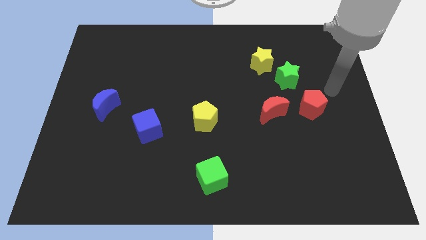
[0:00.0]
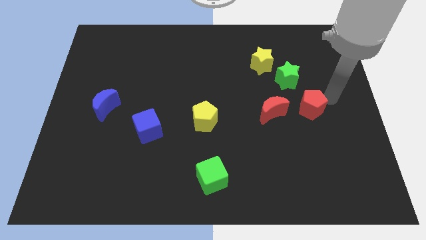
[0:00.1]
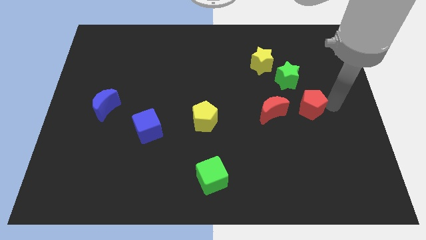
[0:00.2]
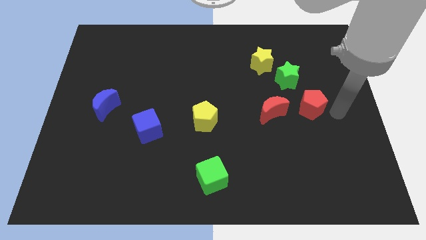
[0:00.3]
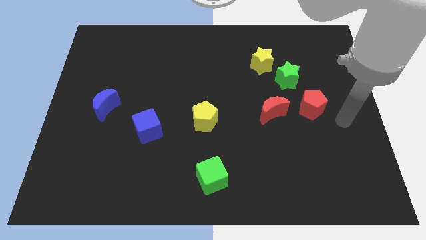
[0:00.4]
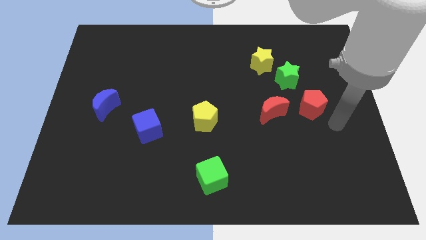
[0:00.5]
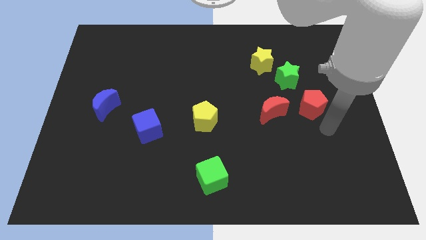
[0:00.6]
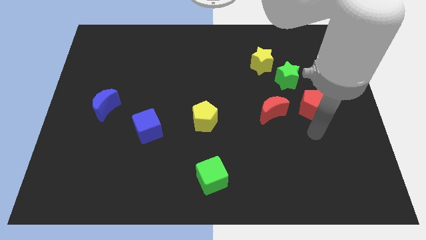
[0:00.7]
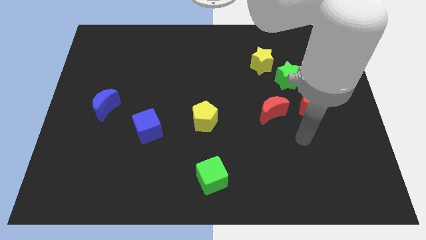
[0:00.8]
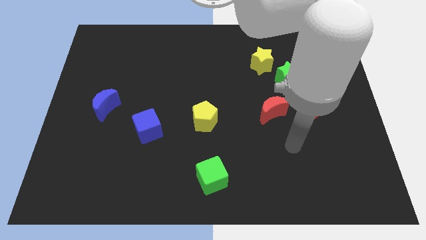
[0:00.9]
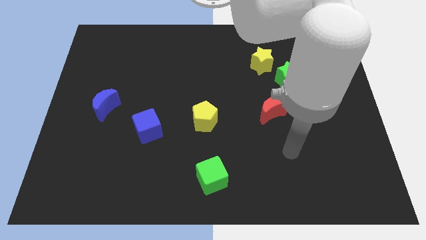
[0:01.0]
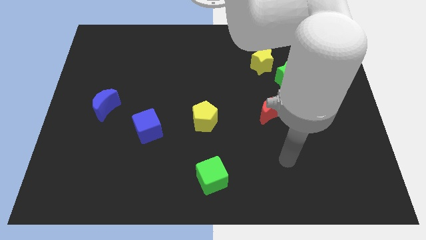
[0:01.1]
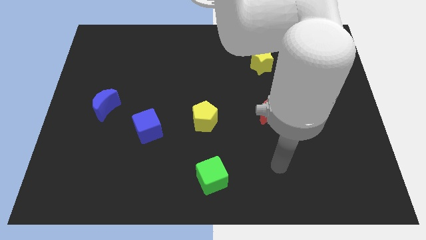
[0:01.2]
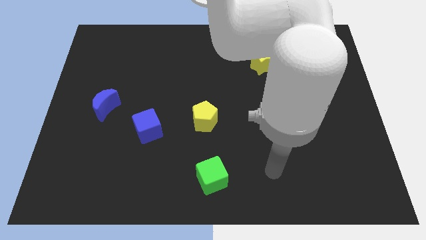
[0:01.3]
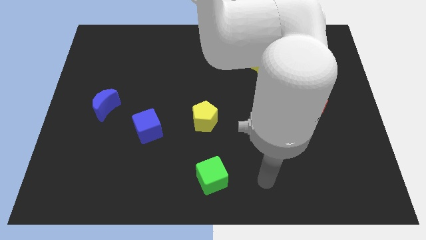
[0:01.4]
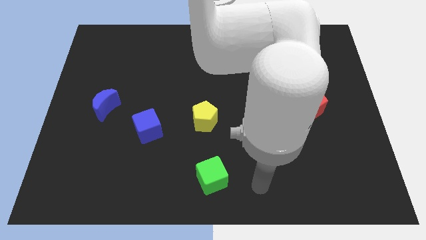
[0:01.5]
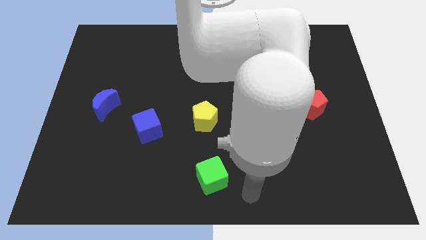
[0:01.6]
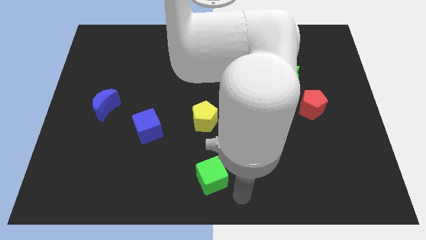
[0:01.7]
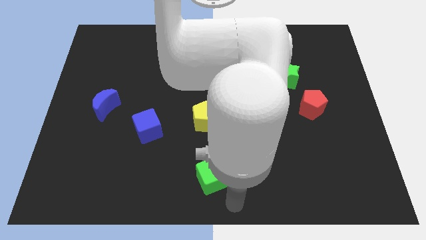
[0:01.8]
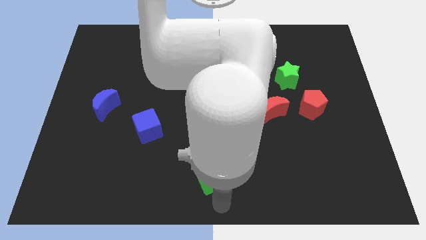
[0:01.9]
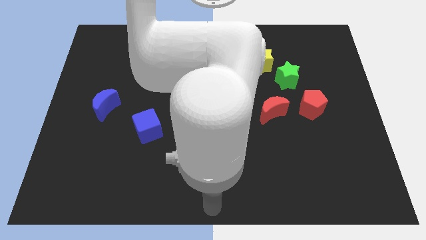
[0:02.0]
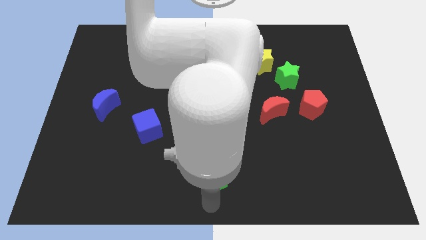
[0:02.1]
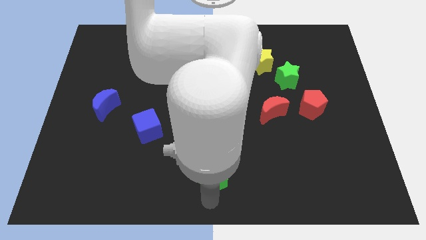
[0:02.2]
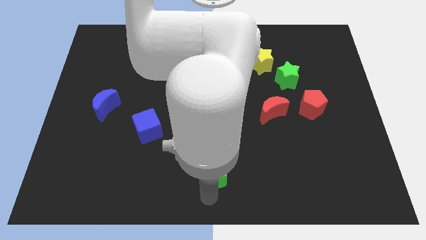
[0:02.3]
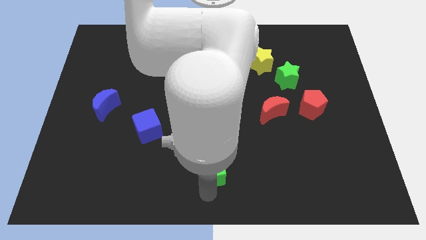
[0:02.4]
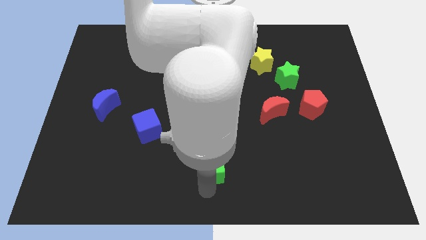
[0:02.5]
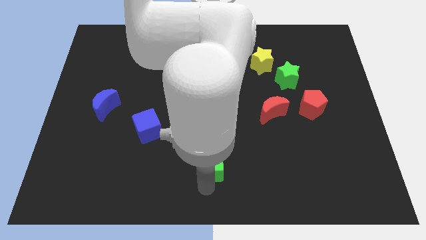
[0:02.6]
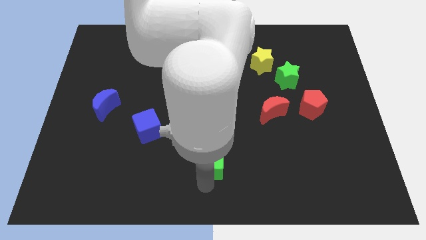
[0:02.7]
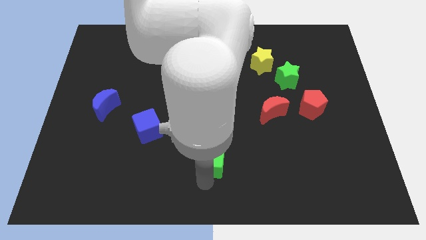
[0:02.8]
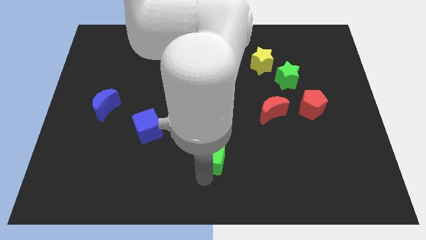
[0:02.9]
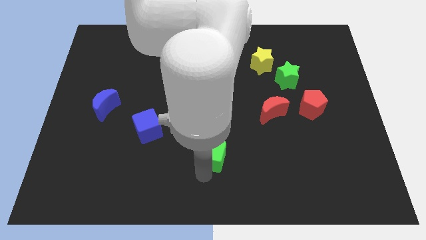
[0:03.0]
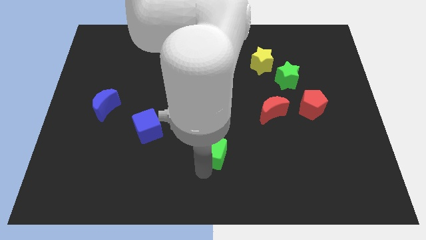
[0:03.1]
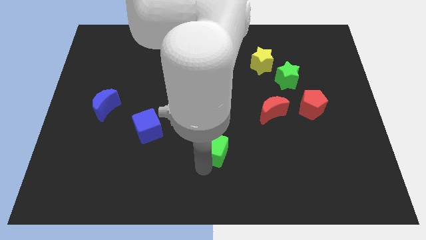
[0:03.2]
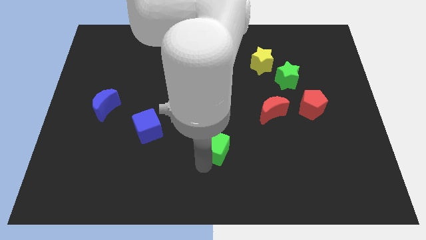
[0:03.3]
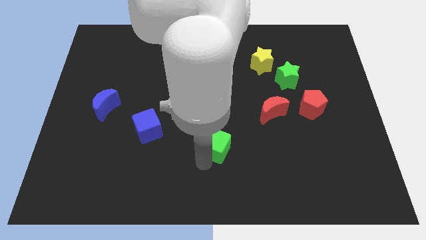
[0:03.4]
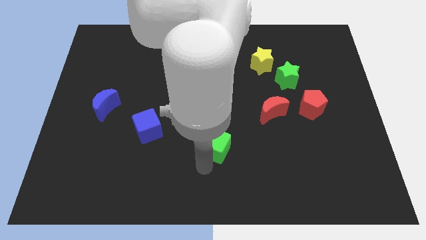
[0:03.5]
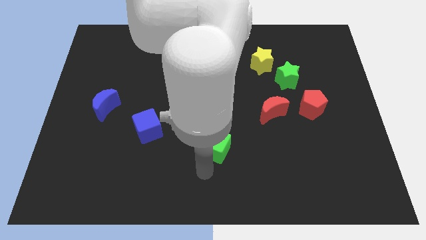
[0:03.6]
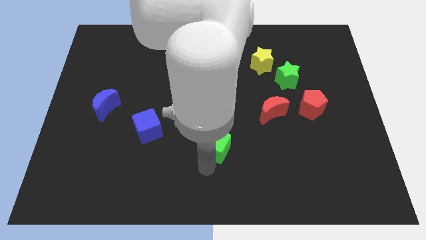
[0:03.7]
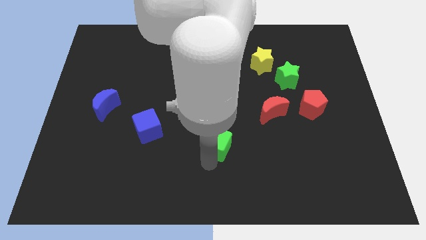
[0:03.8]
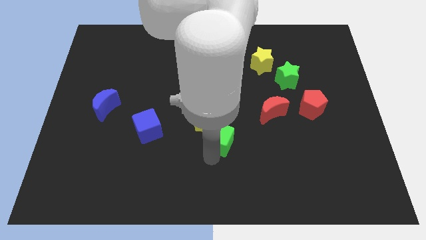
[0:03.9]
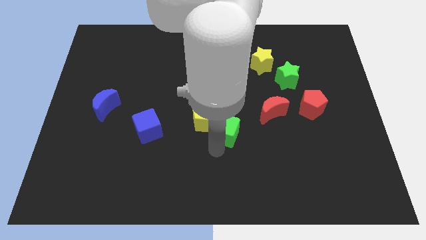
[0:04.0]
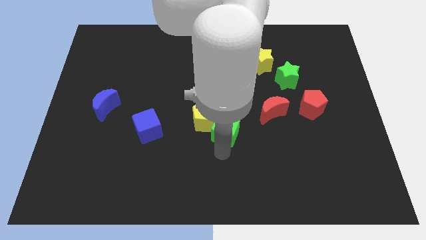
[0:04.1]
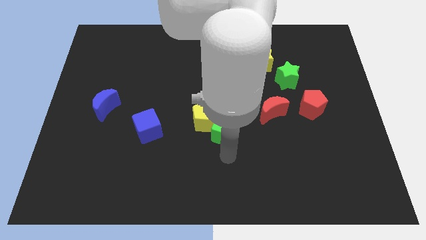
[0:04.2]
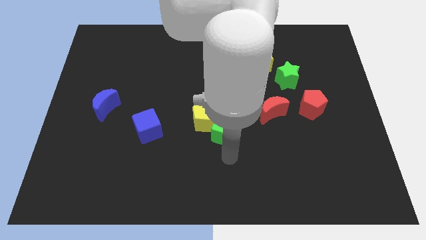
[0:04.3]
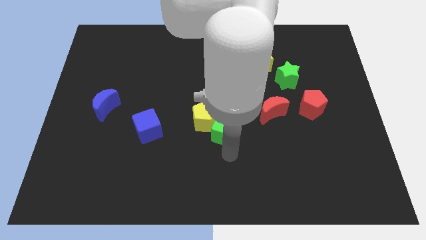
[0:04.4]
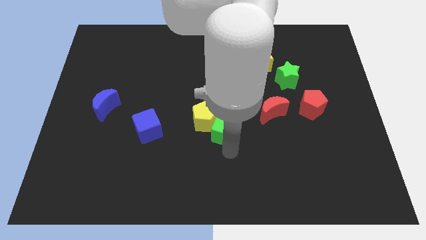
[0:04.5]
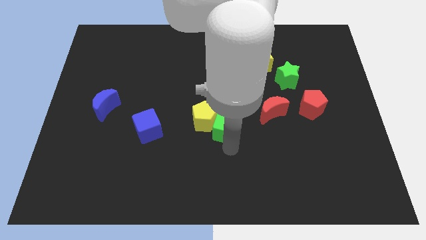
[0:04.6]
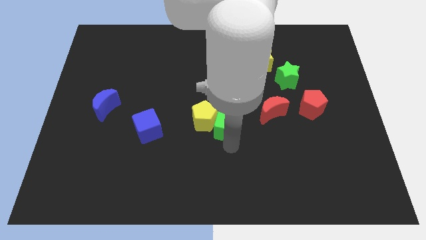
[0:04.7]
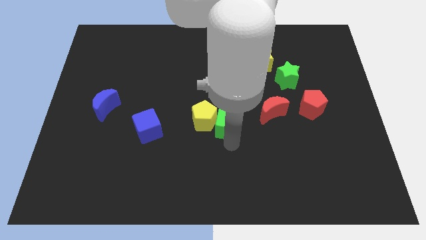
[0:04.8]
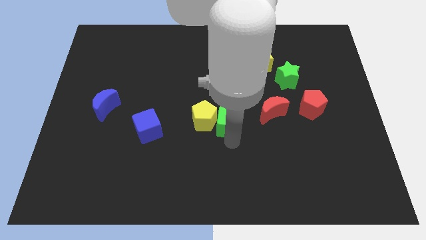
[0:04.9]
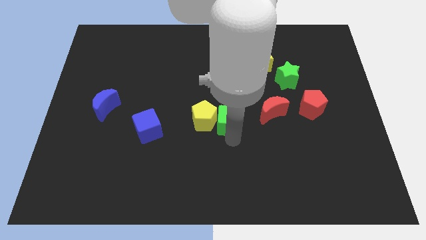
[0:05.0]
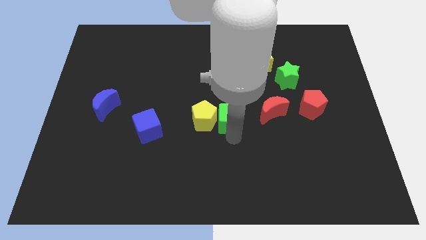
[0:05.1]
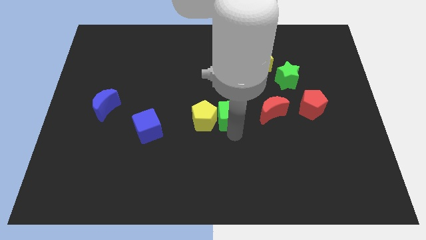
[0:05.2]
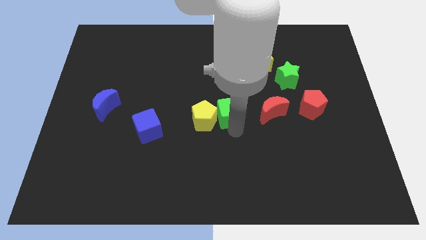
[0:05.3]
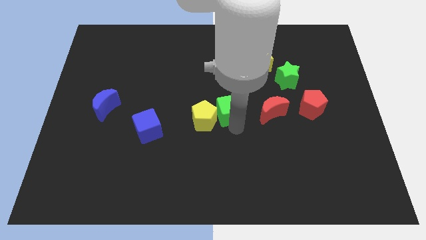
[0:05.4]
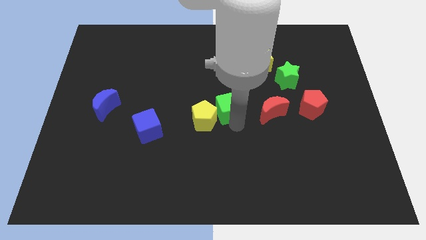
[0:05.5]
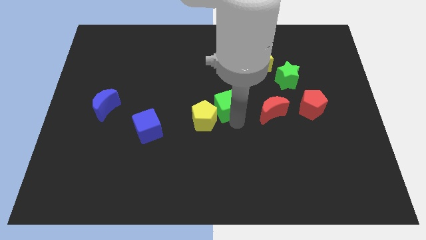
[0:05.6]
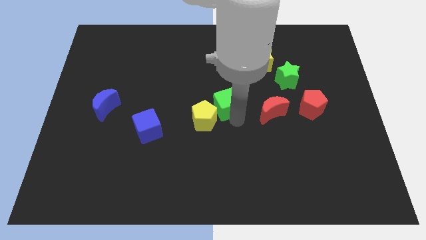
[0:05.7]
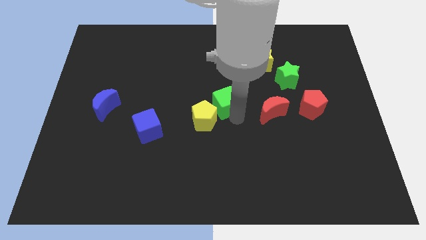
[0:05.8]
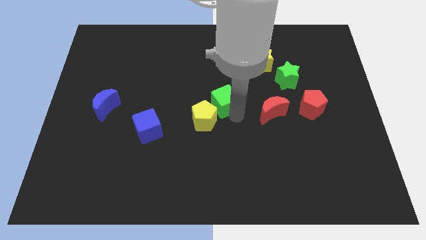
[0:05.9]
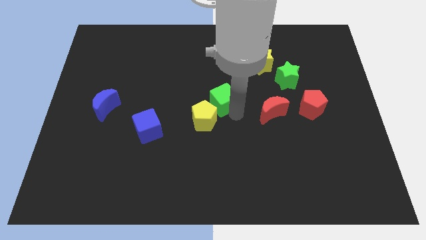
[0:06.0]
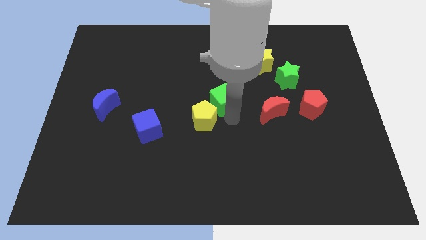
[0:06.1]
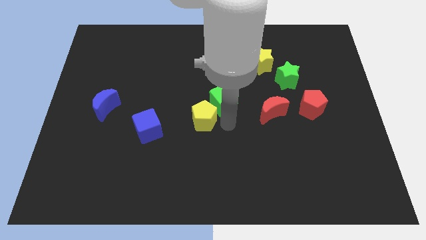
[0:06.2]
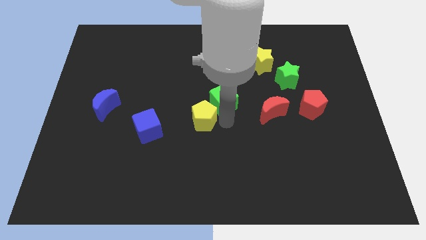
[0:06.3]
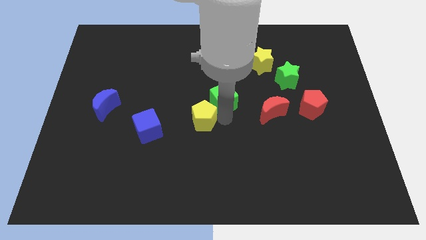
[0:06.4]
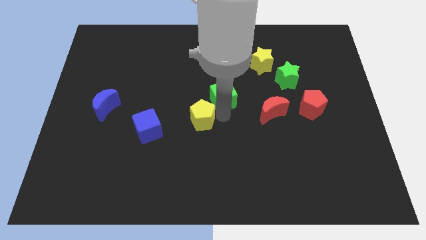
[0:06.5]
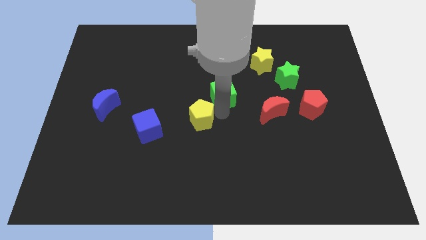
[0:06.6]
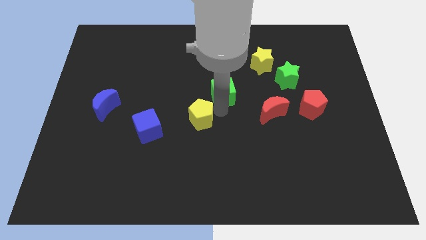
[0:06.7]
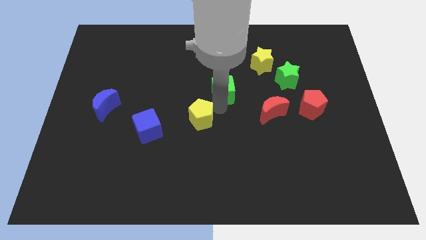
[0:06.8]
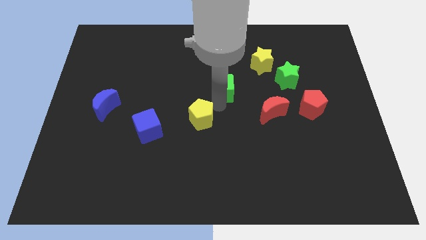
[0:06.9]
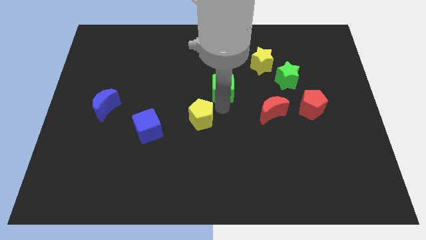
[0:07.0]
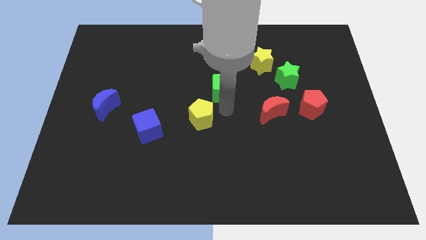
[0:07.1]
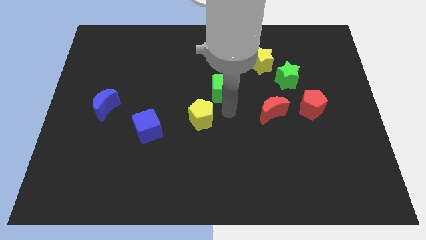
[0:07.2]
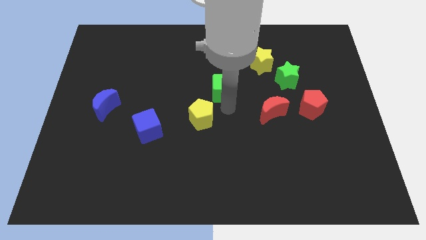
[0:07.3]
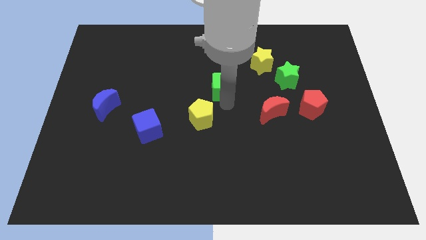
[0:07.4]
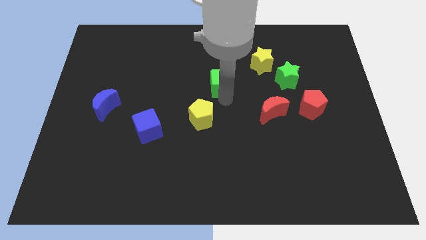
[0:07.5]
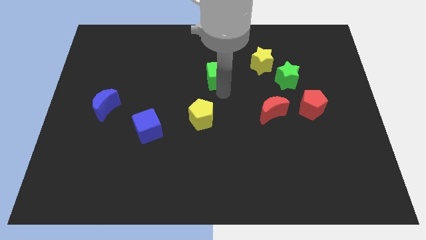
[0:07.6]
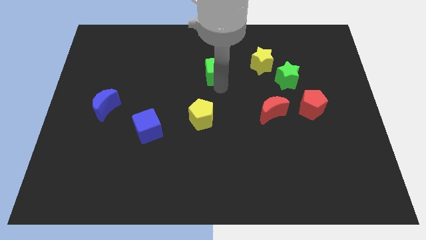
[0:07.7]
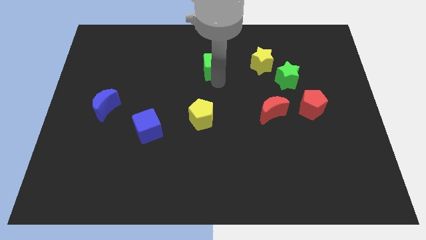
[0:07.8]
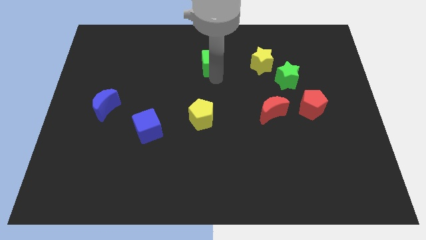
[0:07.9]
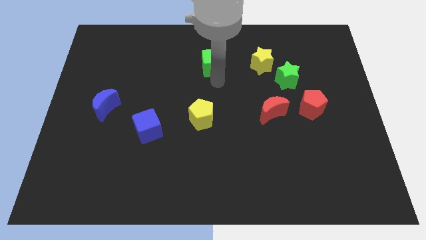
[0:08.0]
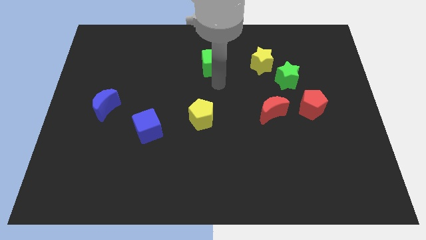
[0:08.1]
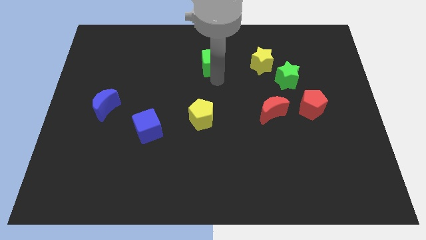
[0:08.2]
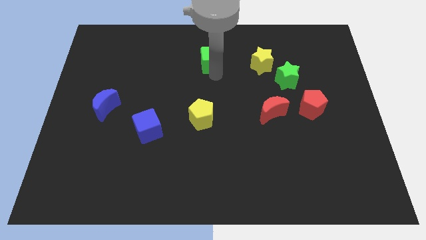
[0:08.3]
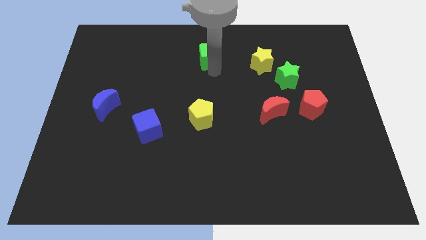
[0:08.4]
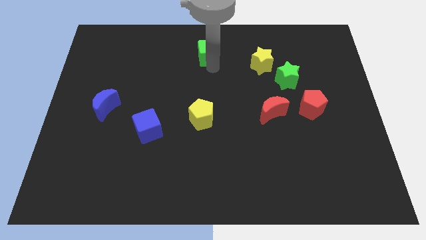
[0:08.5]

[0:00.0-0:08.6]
slide the green cube to the top
